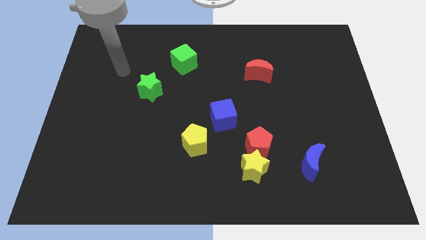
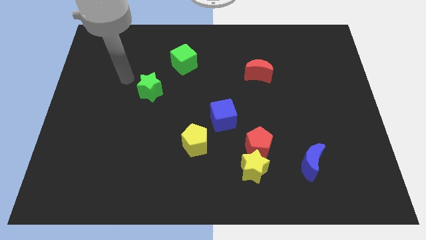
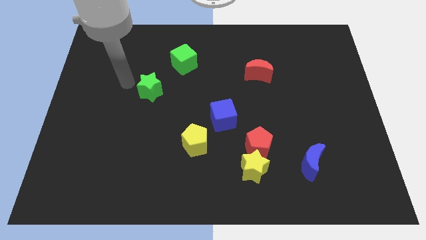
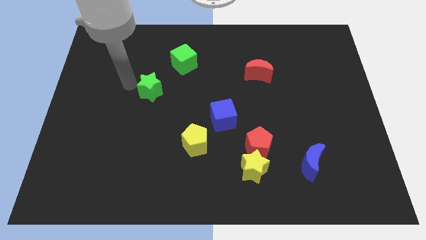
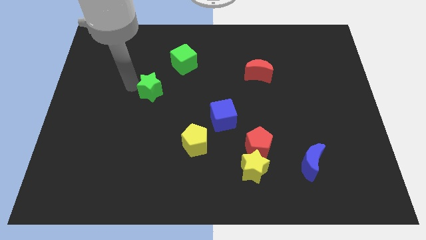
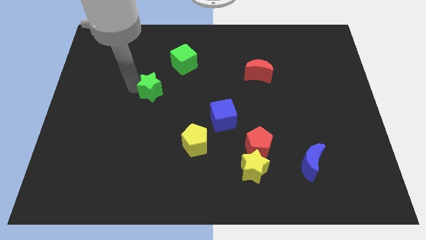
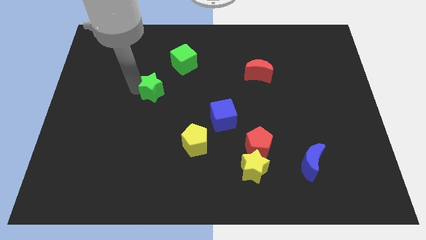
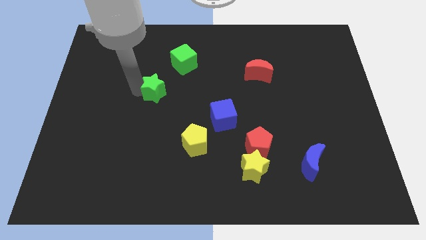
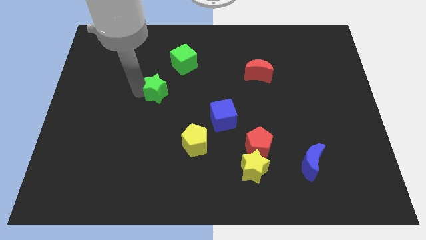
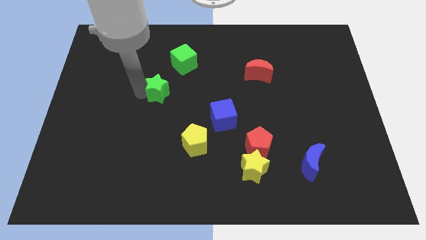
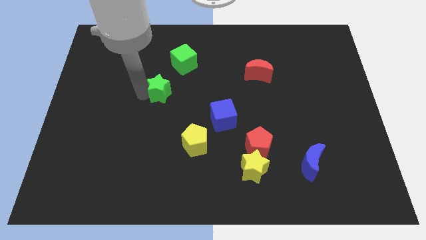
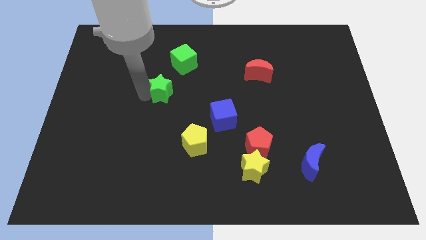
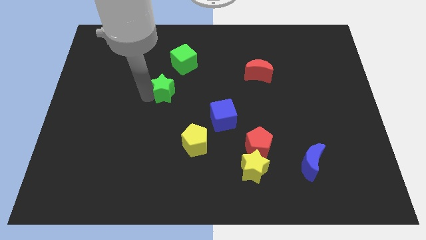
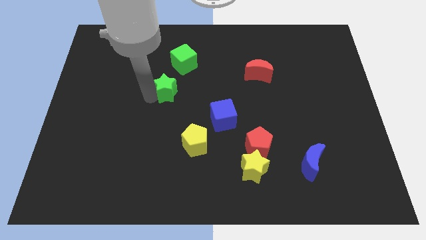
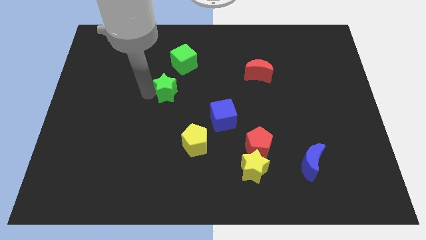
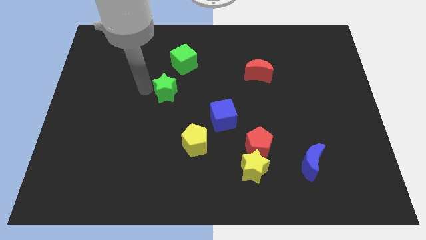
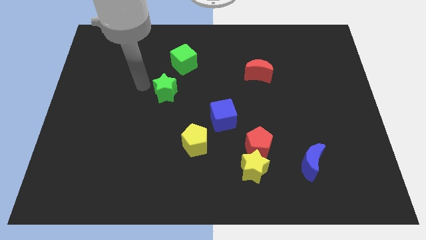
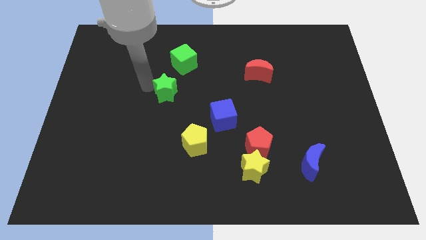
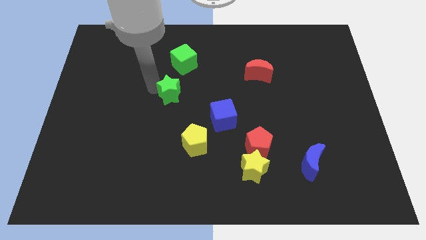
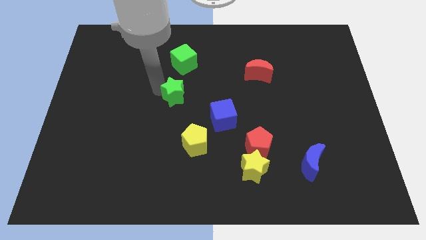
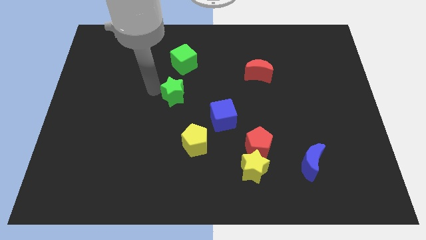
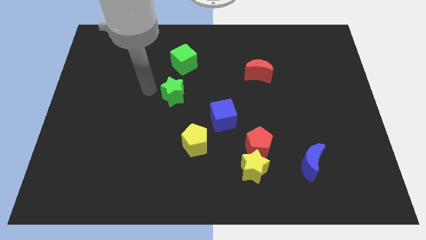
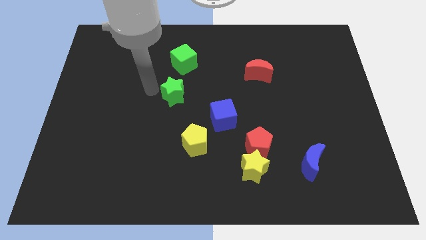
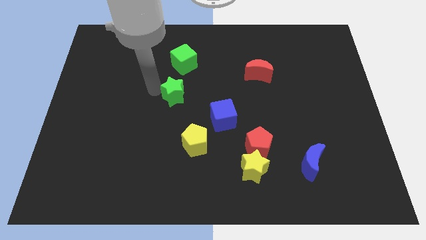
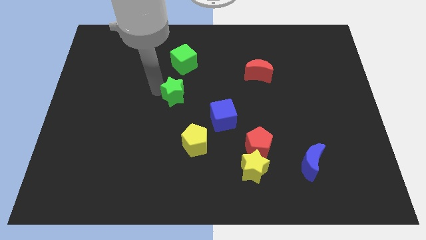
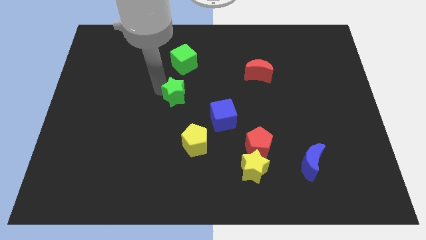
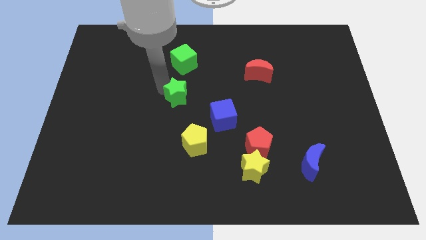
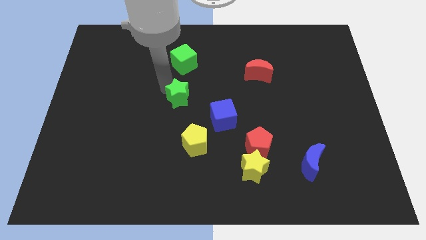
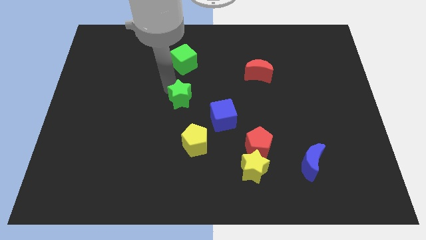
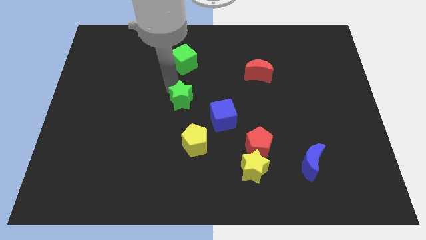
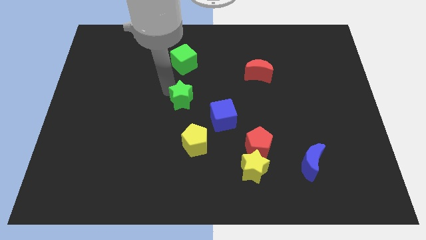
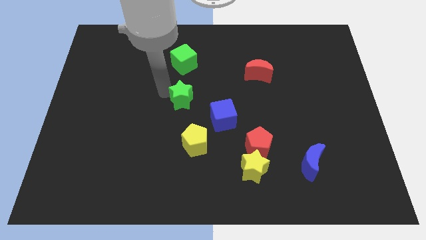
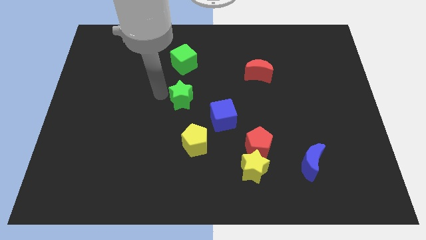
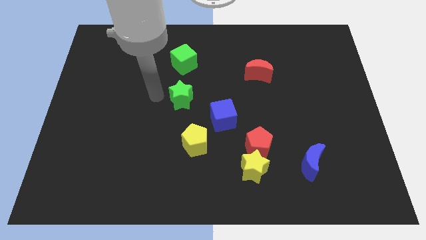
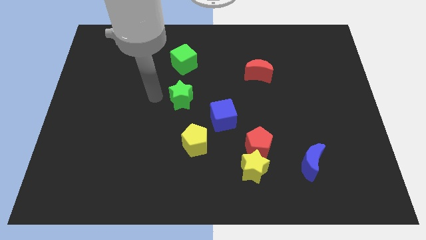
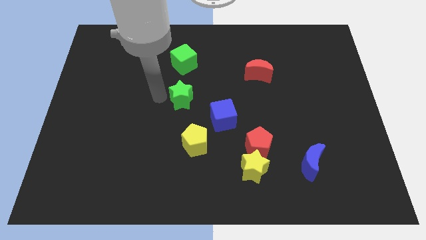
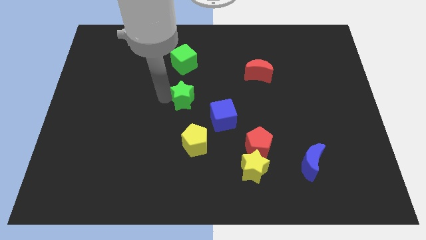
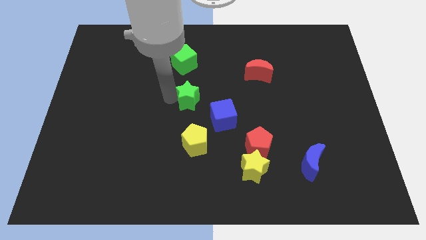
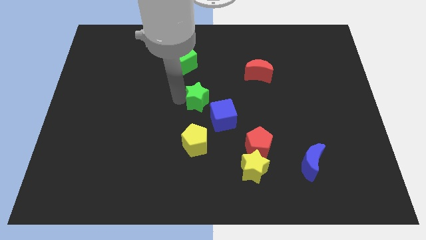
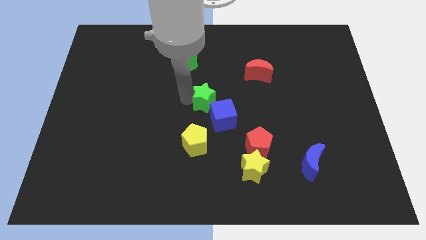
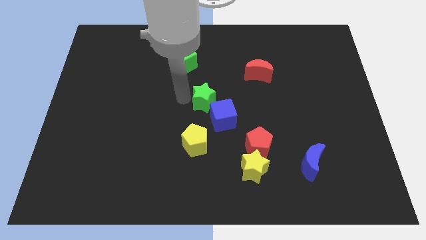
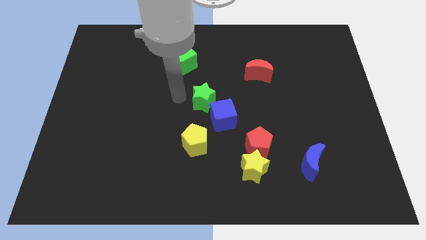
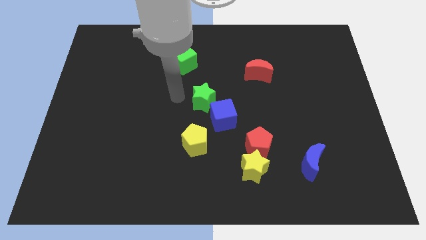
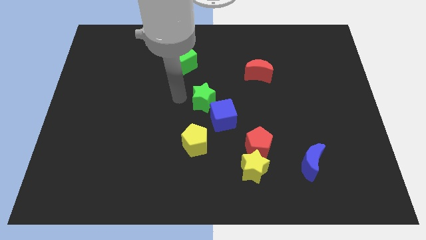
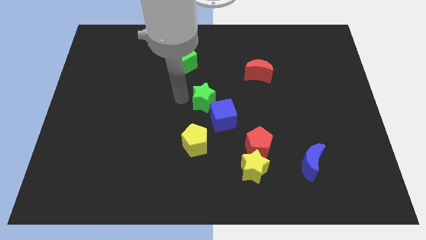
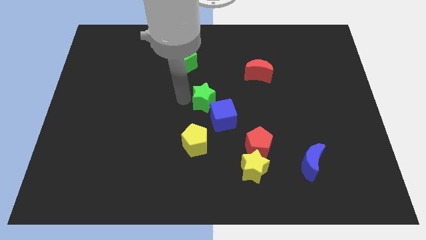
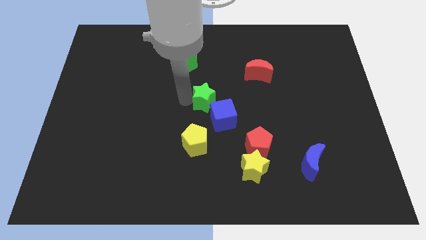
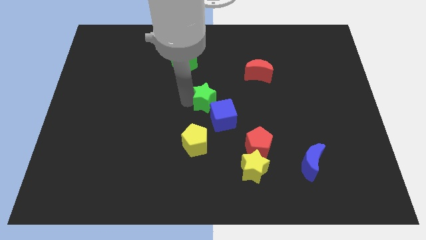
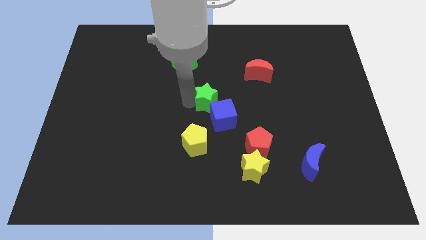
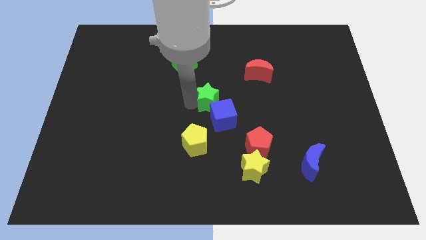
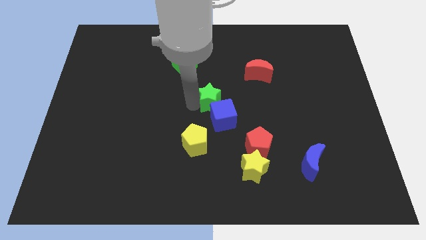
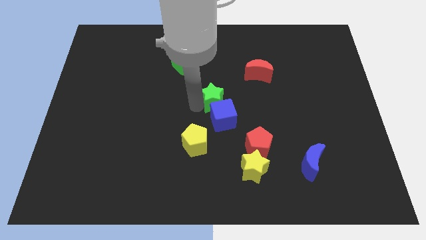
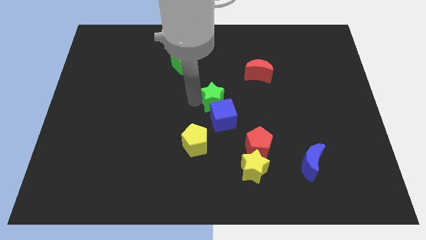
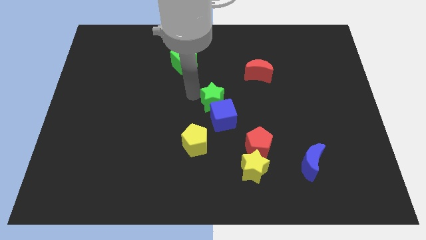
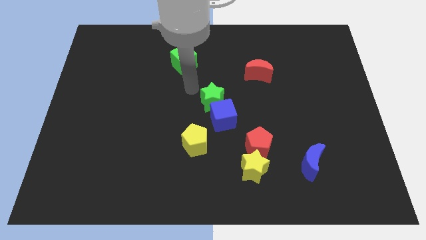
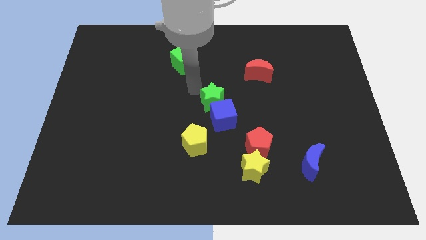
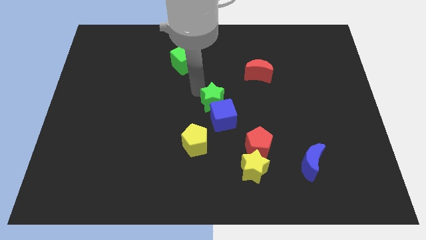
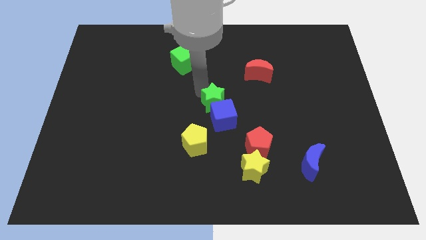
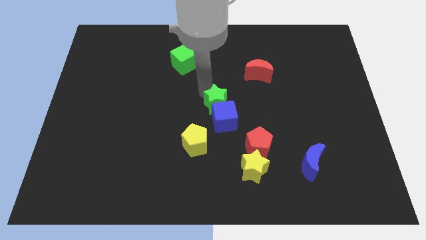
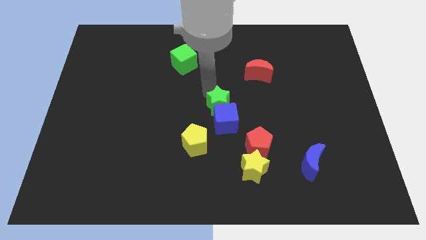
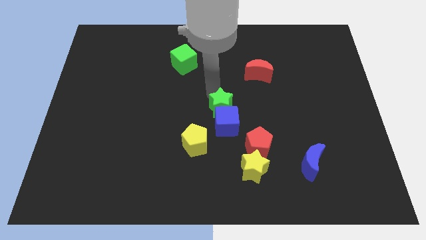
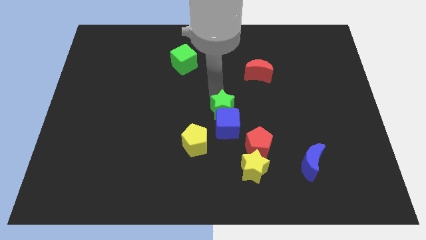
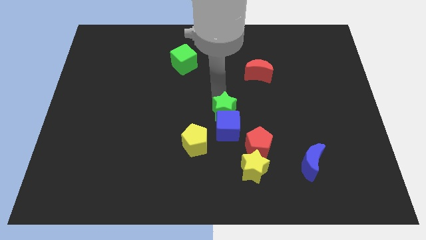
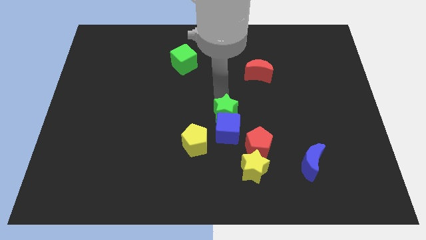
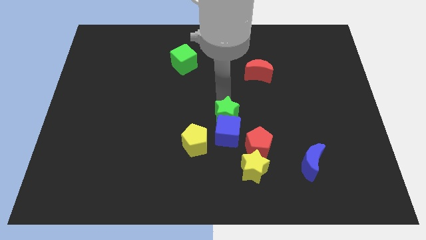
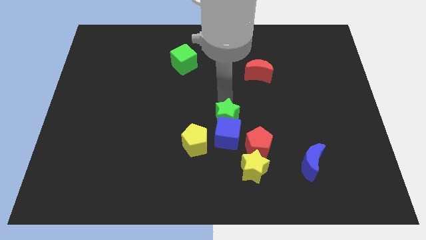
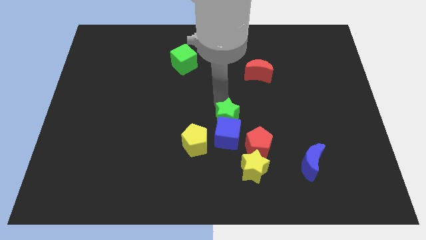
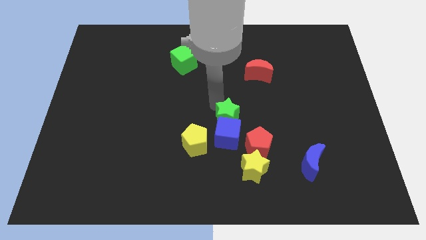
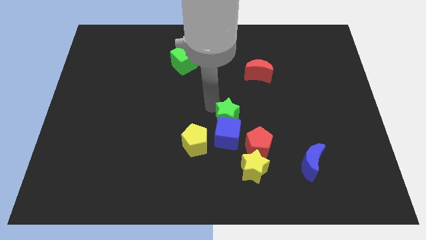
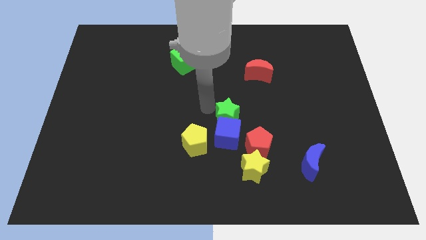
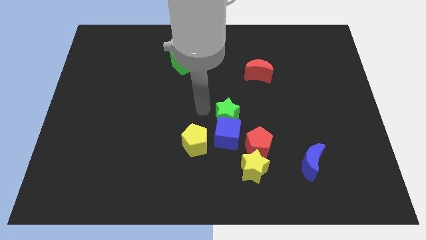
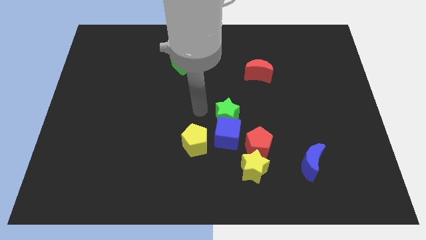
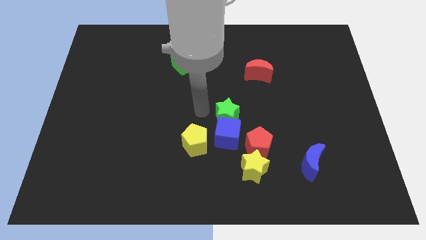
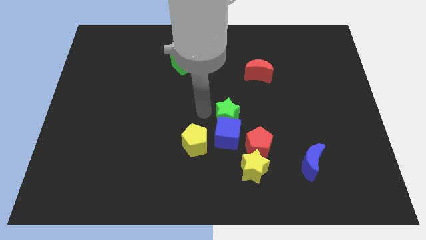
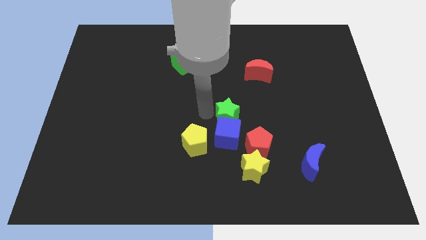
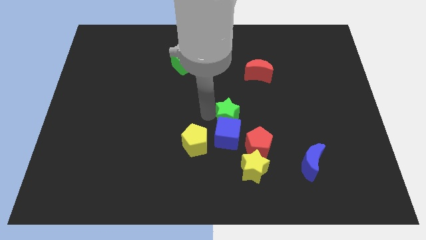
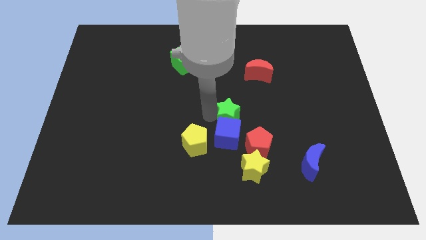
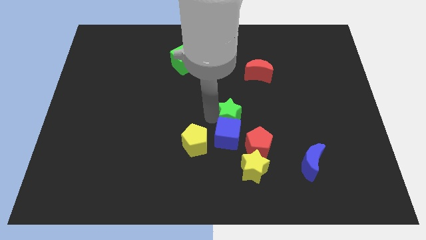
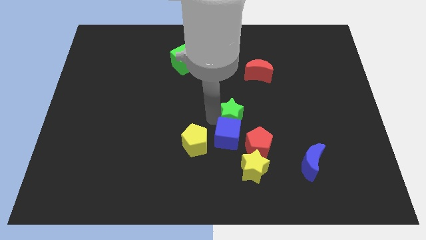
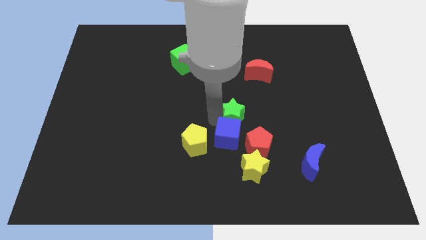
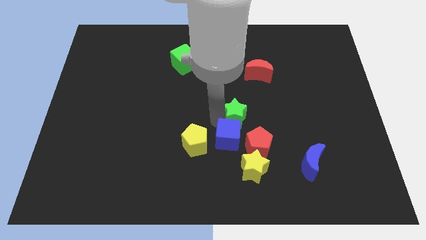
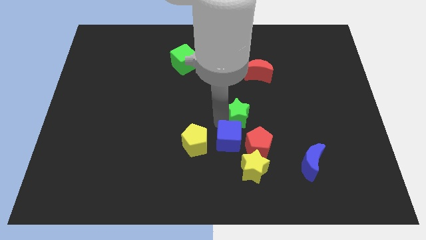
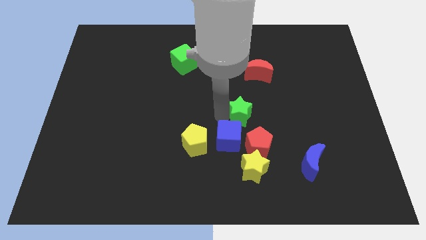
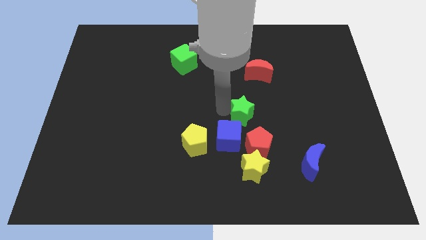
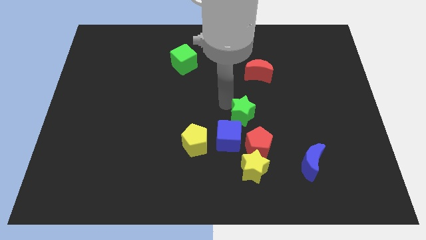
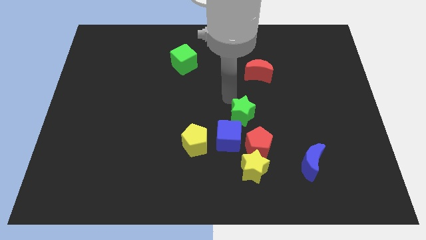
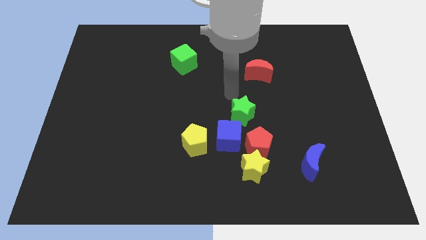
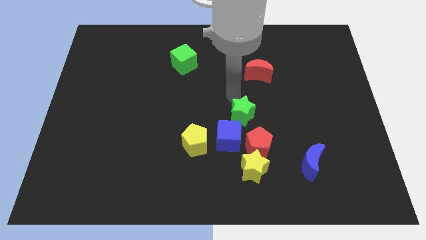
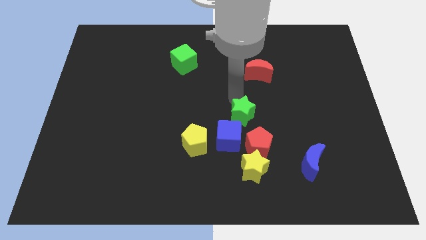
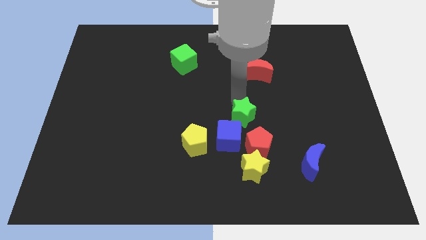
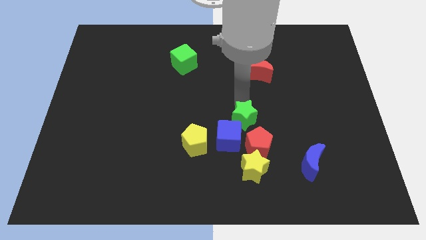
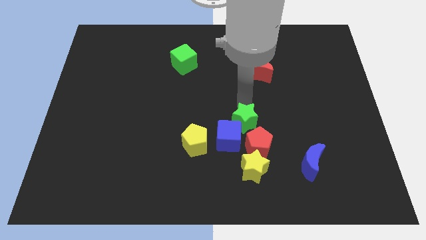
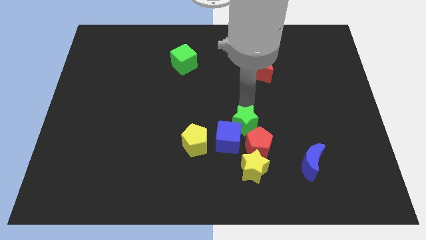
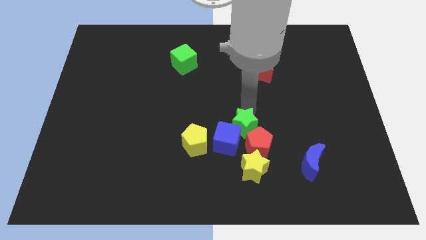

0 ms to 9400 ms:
move the green star towards the red pentagon
